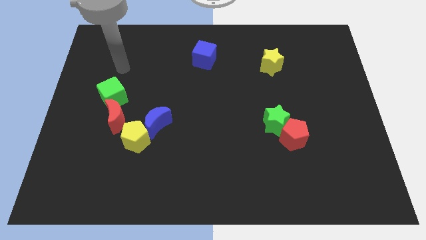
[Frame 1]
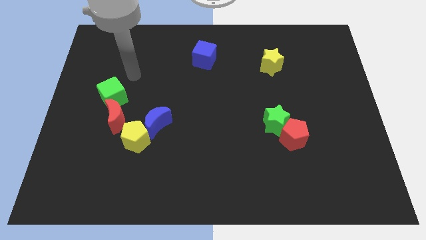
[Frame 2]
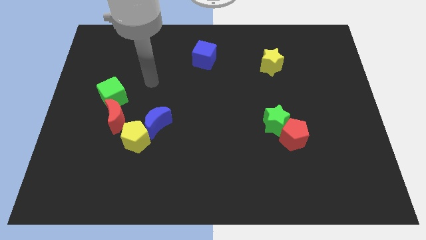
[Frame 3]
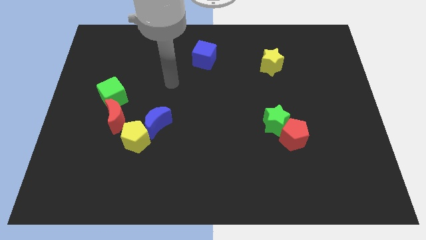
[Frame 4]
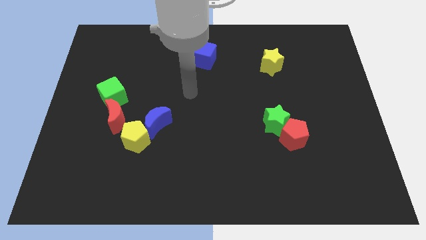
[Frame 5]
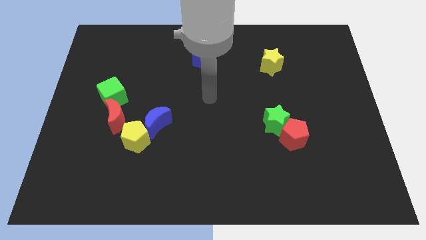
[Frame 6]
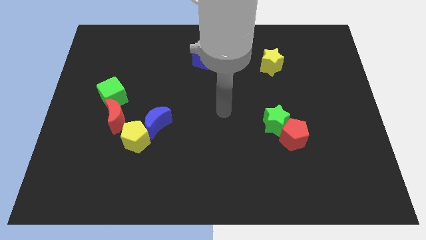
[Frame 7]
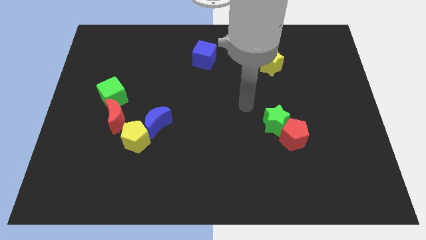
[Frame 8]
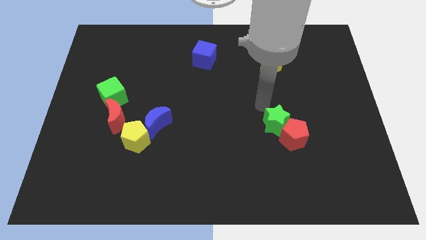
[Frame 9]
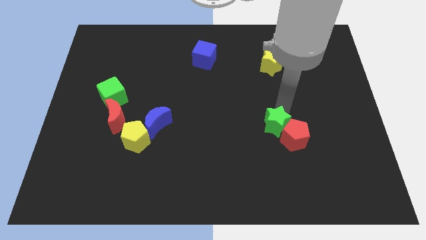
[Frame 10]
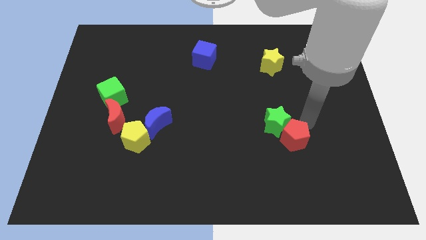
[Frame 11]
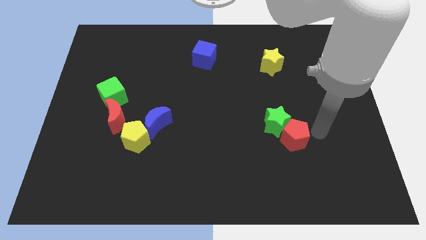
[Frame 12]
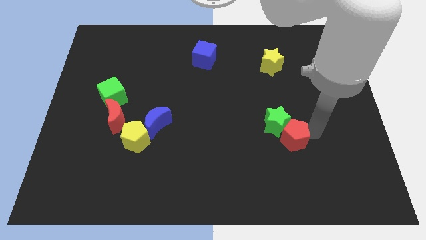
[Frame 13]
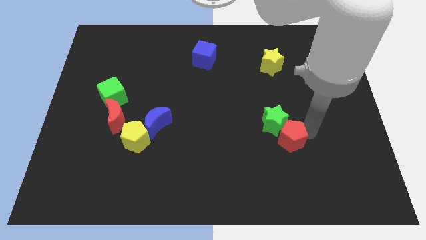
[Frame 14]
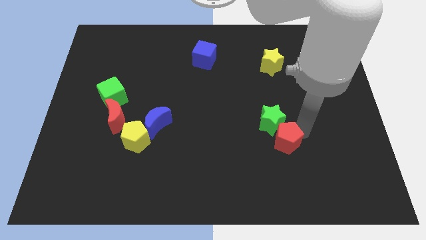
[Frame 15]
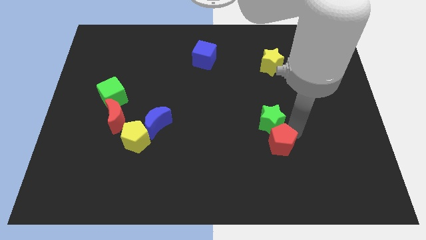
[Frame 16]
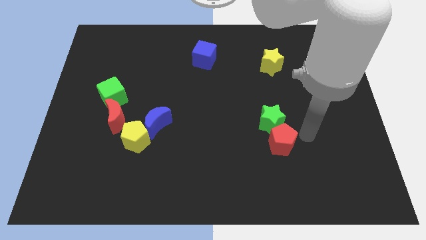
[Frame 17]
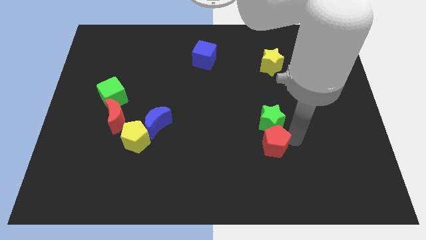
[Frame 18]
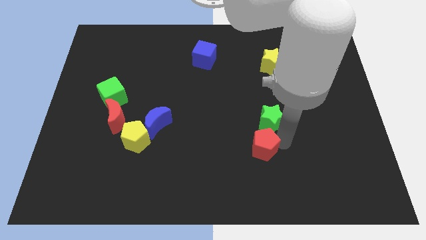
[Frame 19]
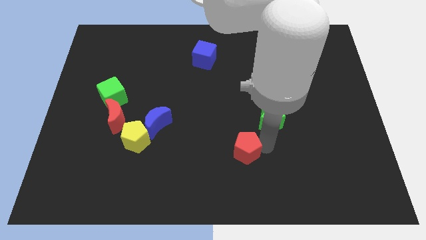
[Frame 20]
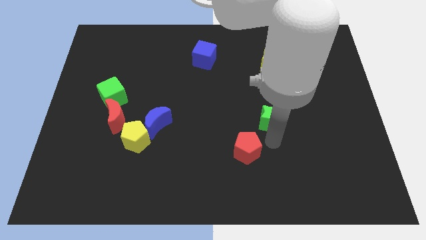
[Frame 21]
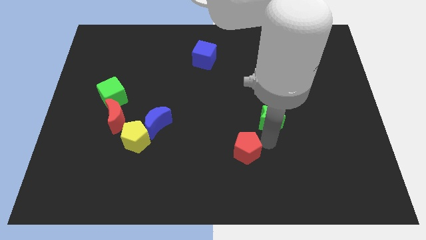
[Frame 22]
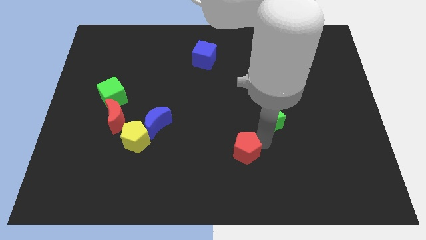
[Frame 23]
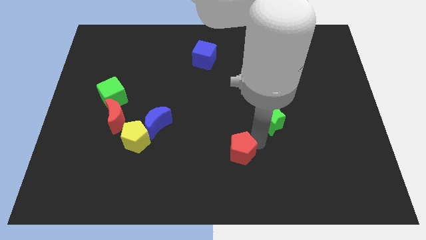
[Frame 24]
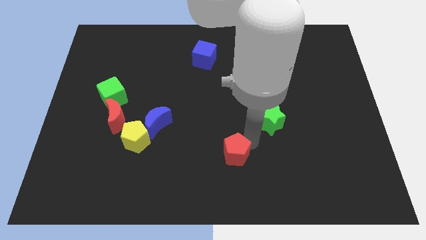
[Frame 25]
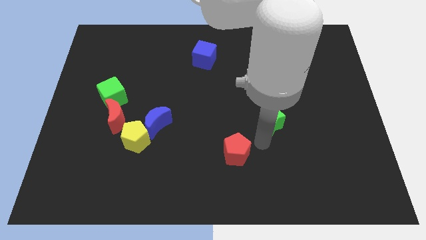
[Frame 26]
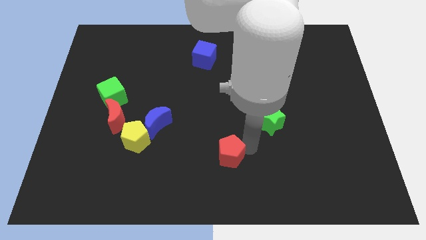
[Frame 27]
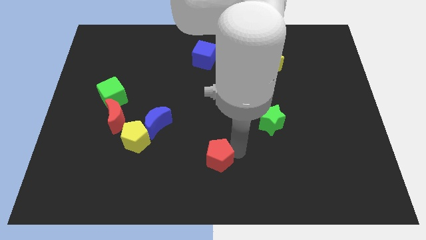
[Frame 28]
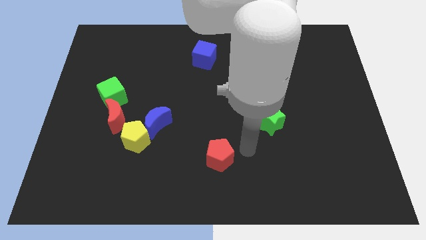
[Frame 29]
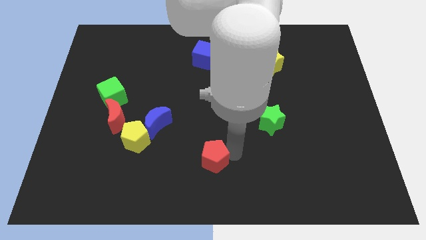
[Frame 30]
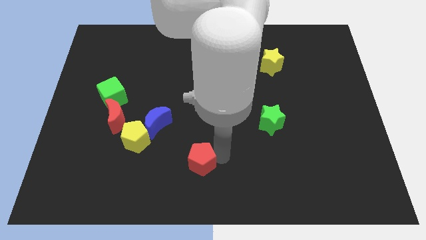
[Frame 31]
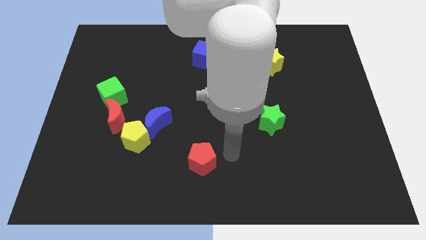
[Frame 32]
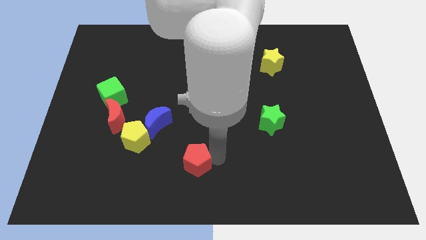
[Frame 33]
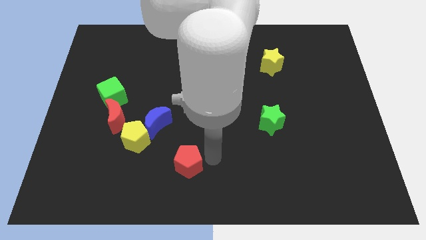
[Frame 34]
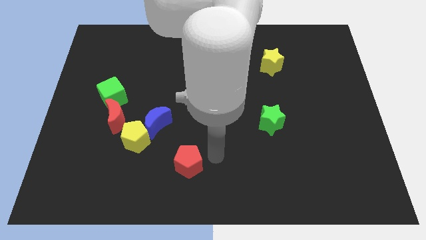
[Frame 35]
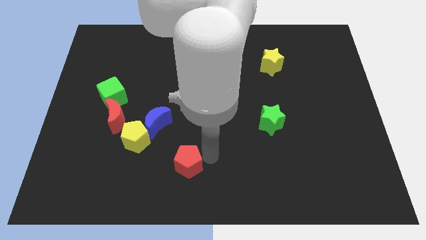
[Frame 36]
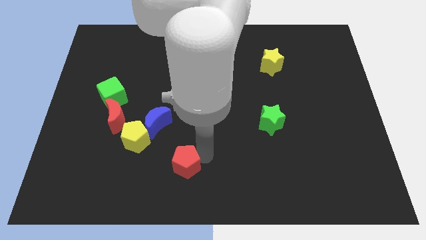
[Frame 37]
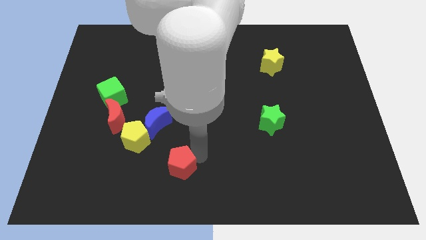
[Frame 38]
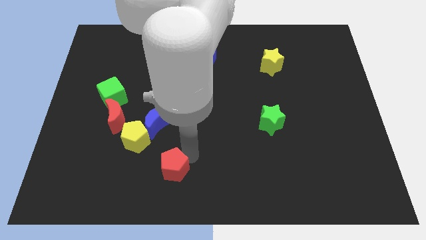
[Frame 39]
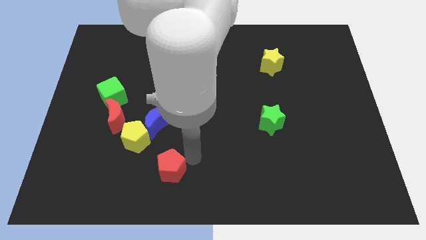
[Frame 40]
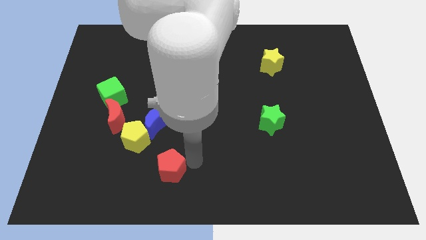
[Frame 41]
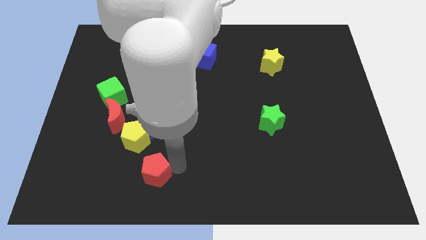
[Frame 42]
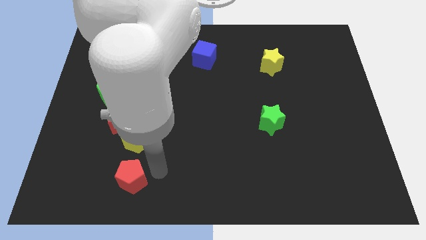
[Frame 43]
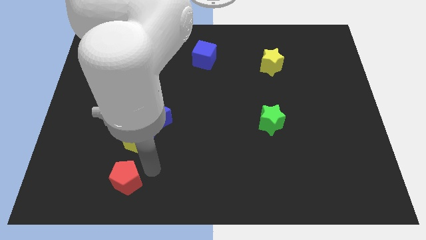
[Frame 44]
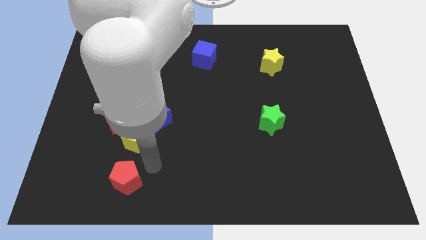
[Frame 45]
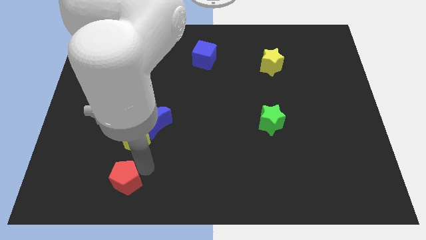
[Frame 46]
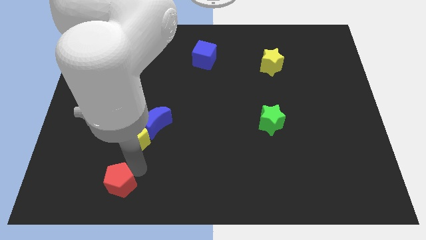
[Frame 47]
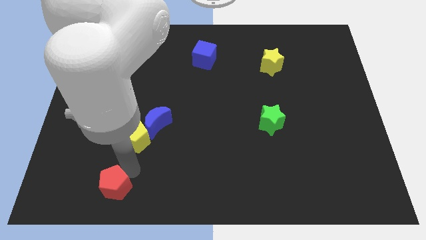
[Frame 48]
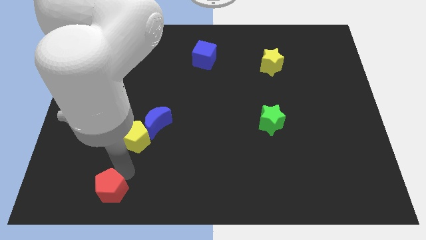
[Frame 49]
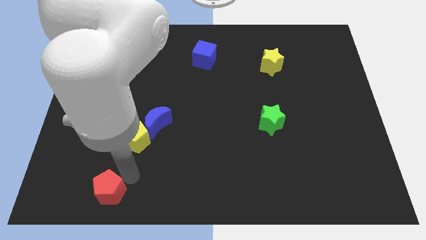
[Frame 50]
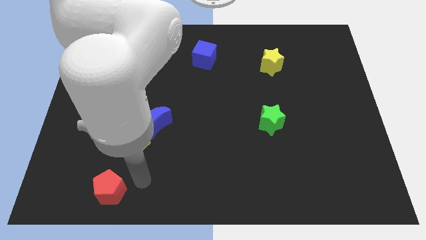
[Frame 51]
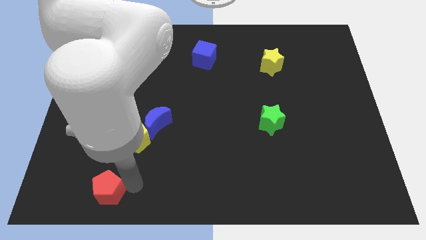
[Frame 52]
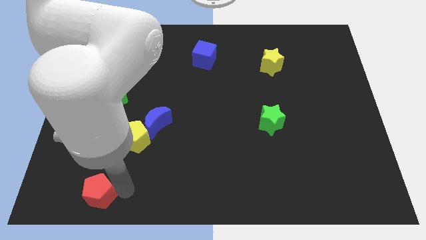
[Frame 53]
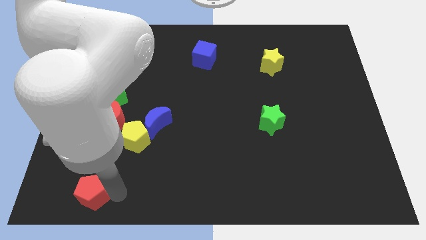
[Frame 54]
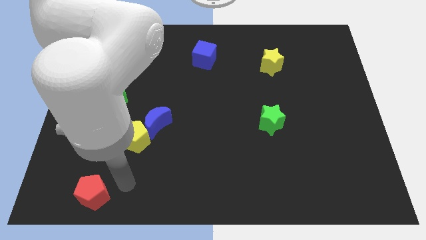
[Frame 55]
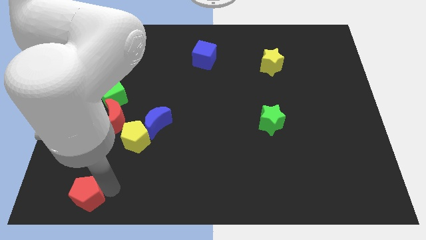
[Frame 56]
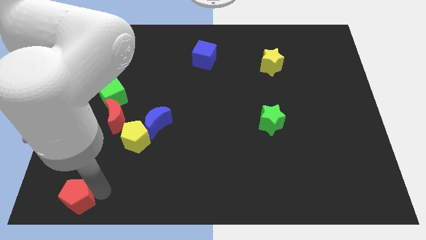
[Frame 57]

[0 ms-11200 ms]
put the red pentagon to the lower left corner

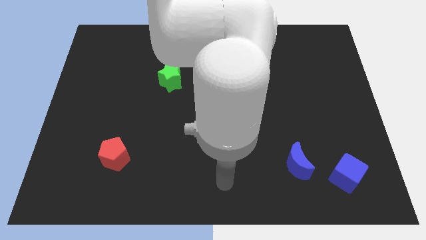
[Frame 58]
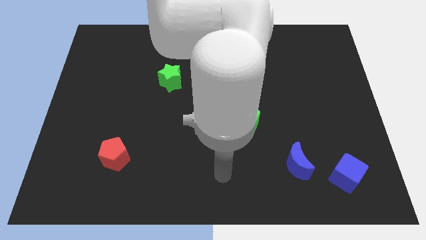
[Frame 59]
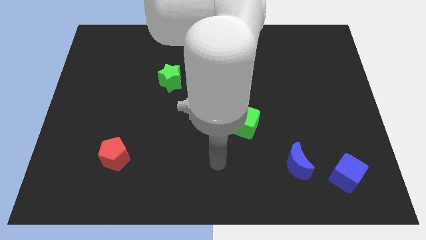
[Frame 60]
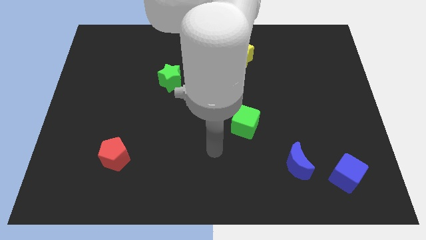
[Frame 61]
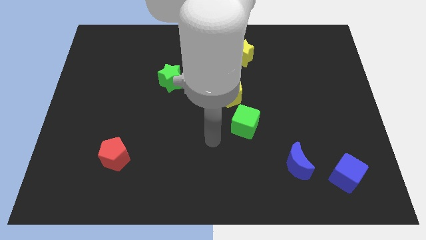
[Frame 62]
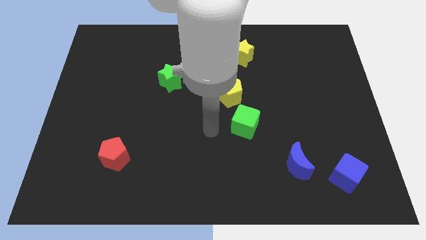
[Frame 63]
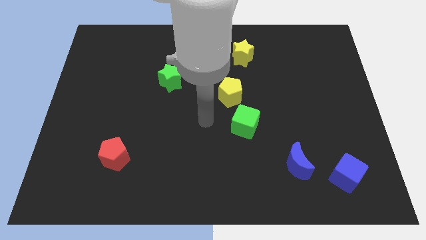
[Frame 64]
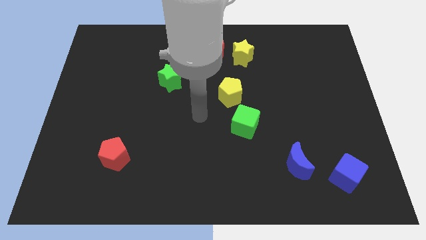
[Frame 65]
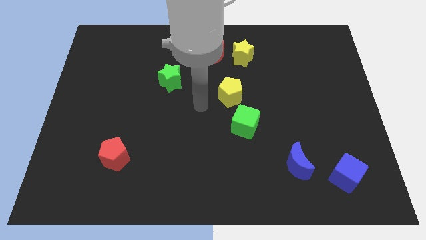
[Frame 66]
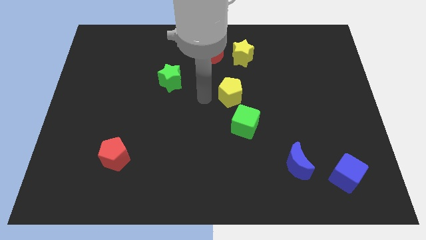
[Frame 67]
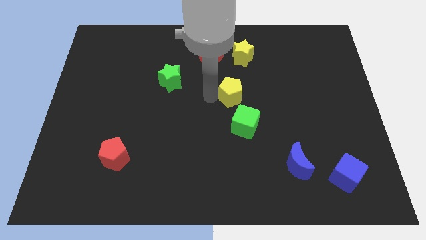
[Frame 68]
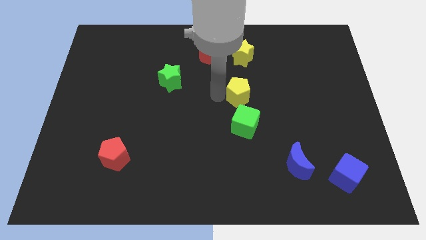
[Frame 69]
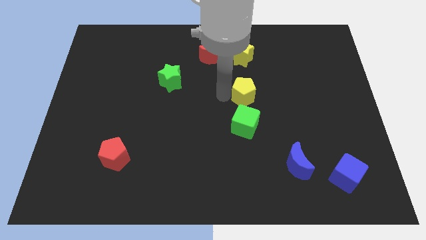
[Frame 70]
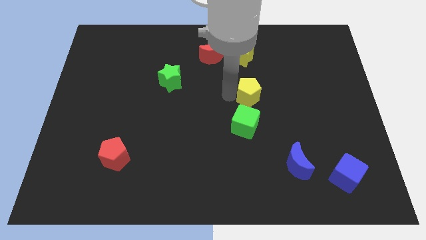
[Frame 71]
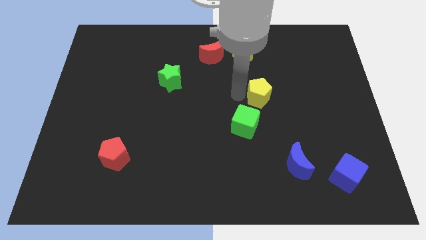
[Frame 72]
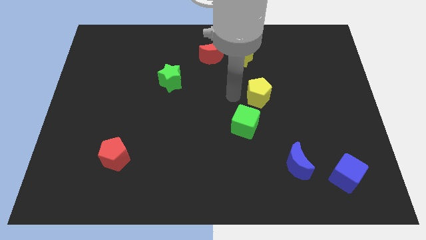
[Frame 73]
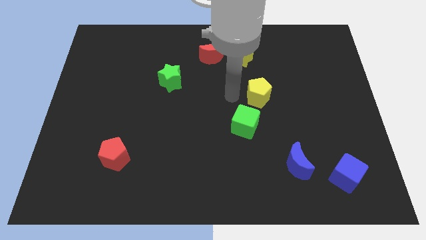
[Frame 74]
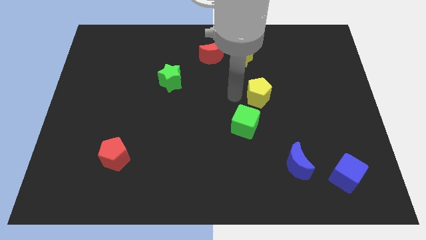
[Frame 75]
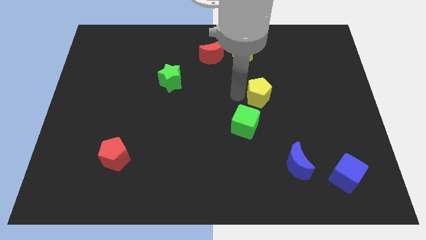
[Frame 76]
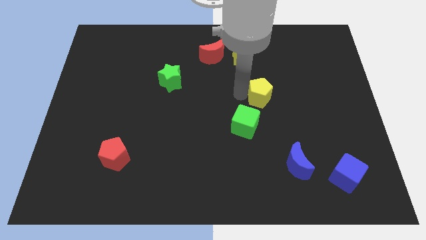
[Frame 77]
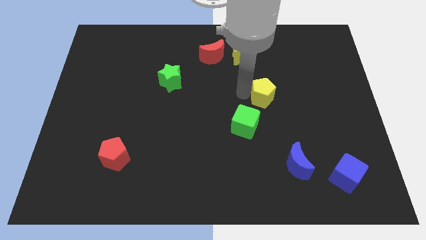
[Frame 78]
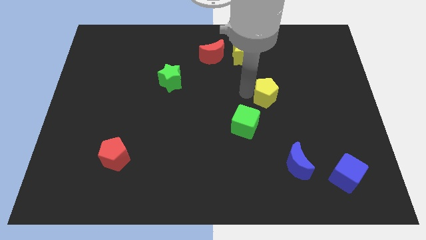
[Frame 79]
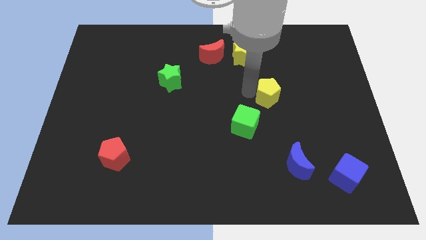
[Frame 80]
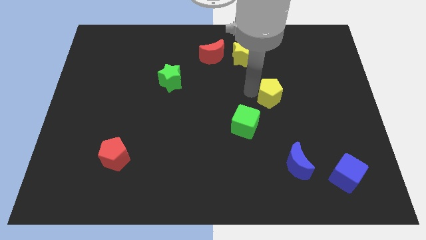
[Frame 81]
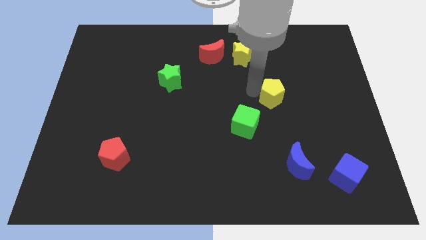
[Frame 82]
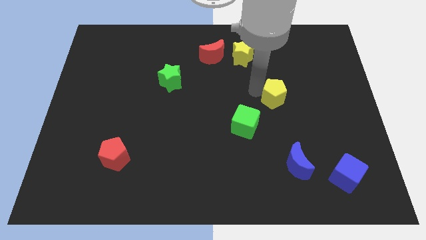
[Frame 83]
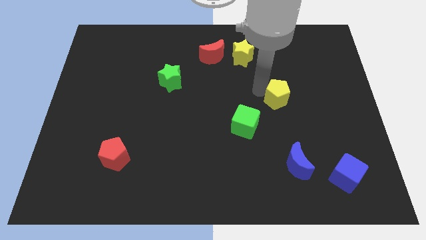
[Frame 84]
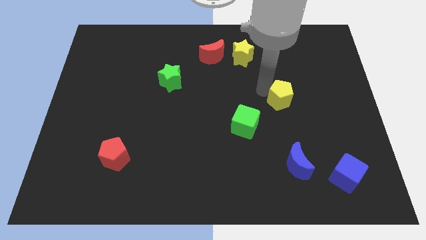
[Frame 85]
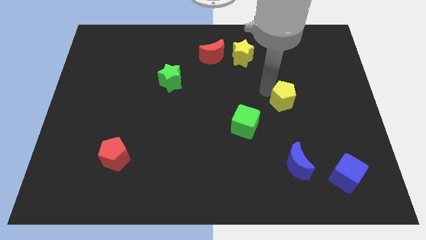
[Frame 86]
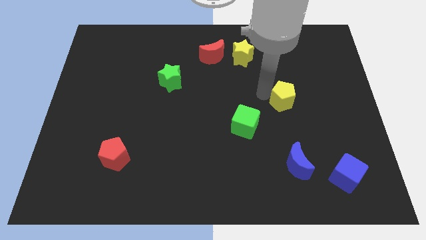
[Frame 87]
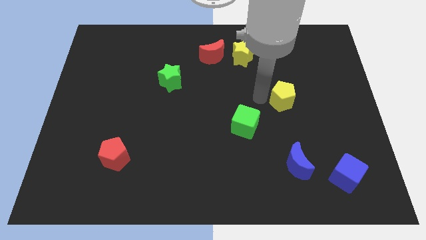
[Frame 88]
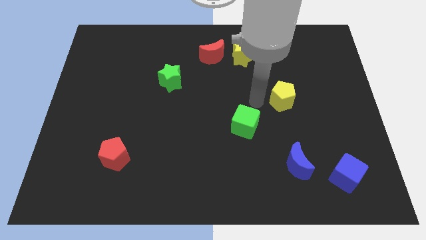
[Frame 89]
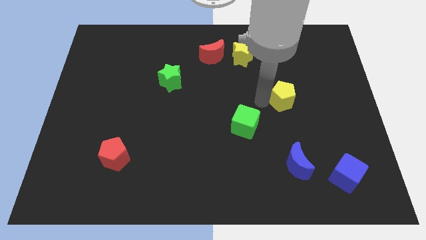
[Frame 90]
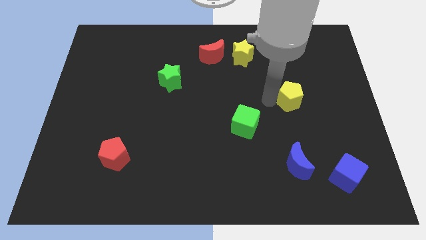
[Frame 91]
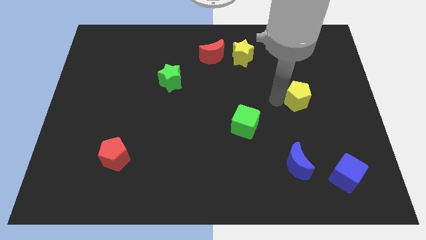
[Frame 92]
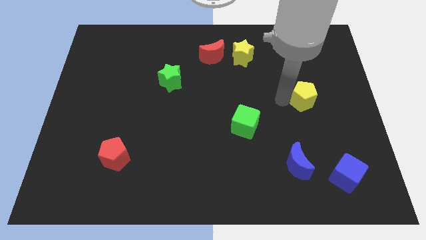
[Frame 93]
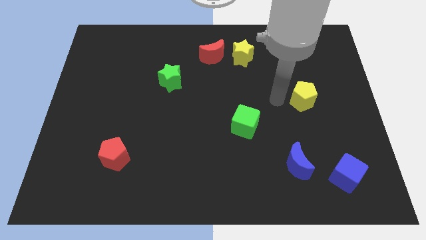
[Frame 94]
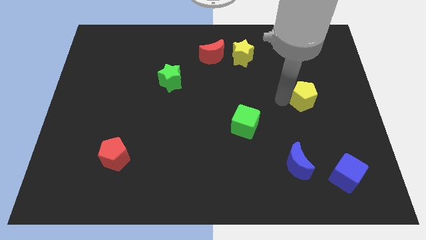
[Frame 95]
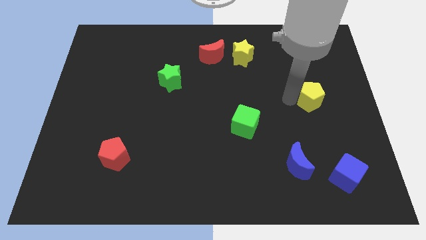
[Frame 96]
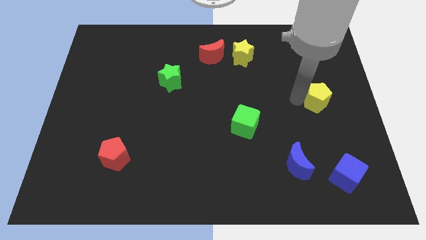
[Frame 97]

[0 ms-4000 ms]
push the yellow pentagon to the center right
